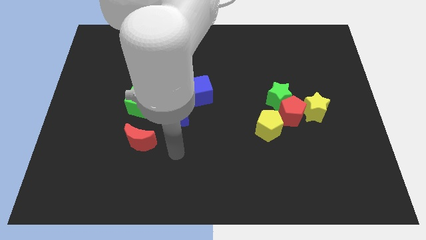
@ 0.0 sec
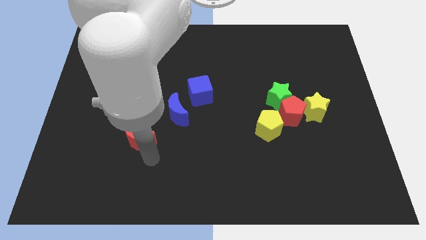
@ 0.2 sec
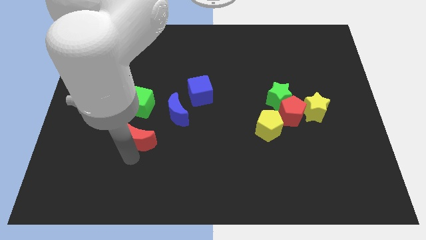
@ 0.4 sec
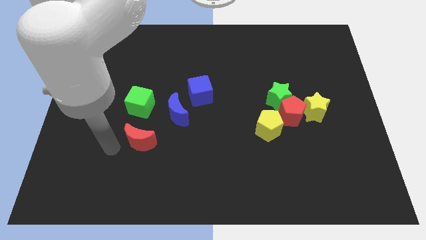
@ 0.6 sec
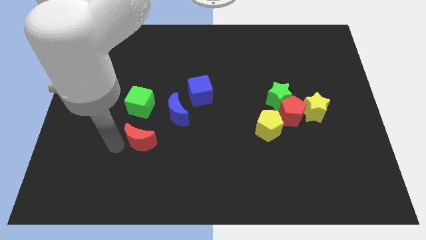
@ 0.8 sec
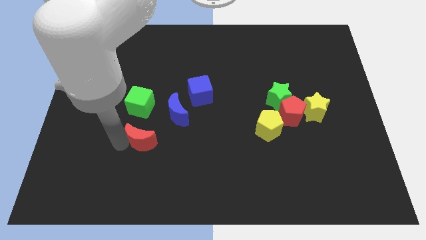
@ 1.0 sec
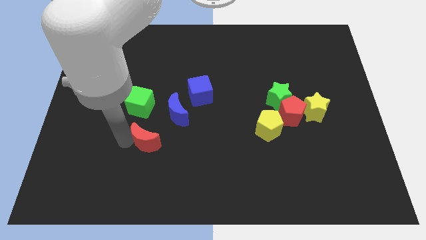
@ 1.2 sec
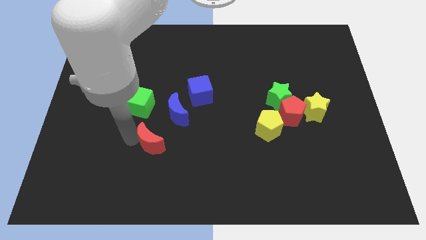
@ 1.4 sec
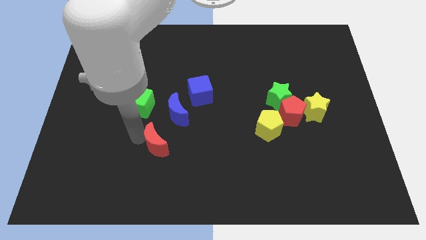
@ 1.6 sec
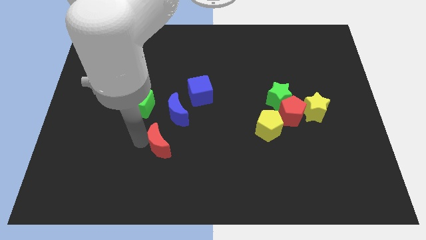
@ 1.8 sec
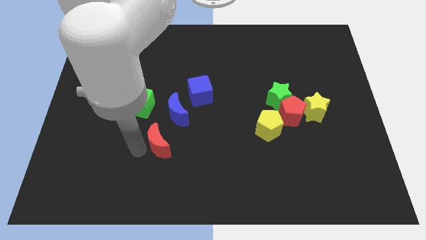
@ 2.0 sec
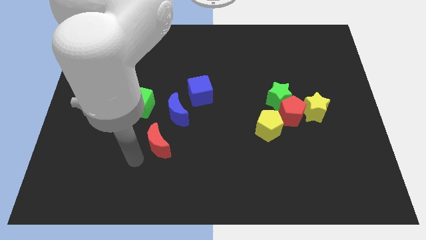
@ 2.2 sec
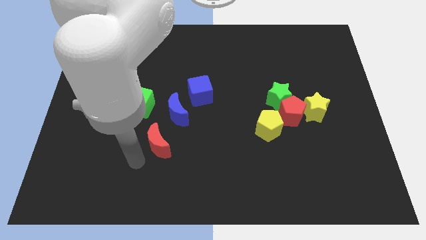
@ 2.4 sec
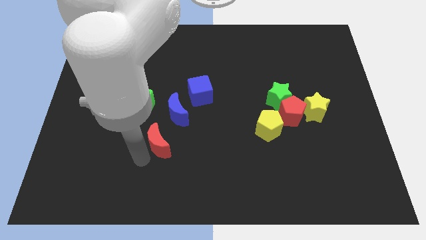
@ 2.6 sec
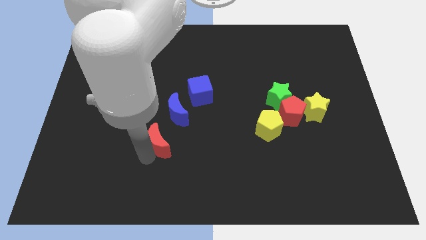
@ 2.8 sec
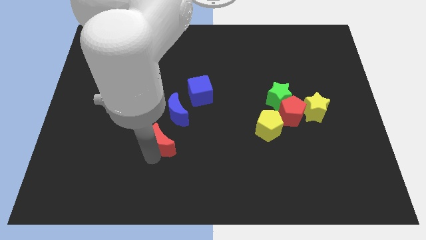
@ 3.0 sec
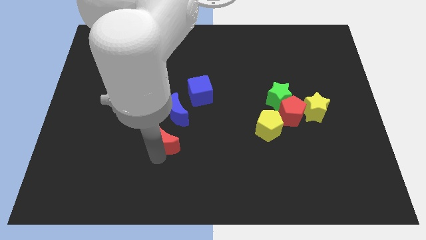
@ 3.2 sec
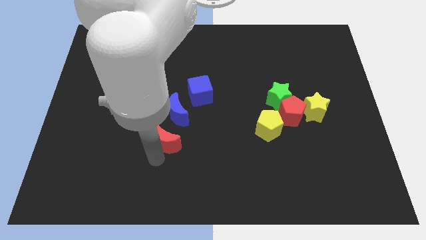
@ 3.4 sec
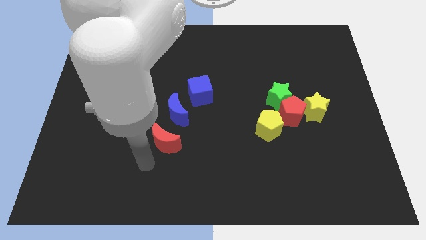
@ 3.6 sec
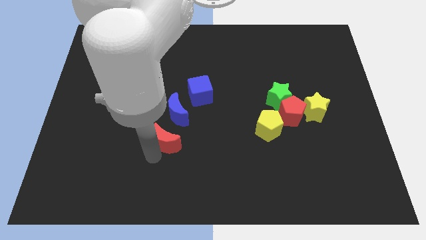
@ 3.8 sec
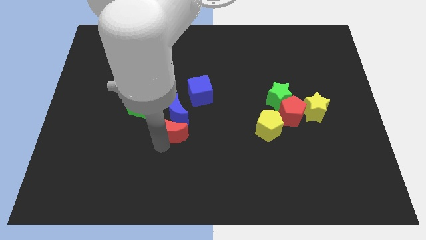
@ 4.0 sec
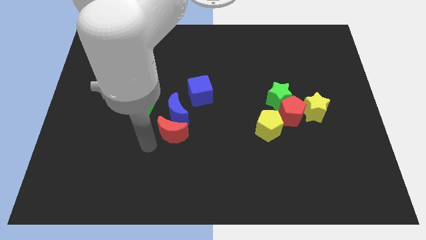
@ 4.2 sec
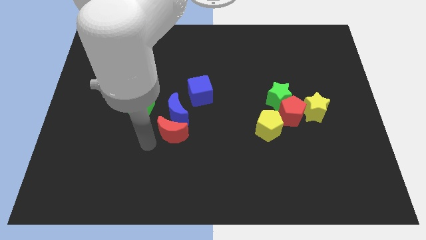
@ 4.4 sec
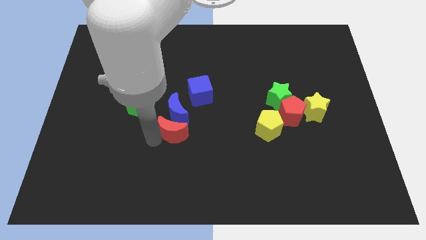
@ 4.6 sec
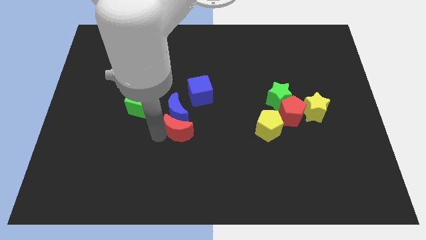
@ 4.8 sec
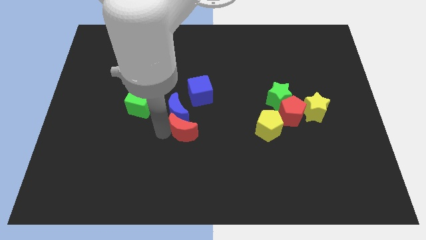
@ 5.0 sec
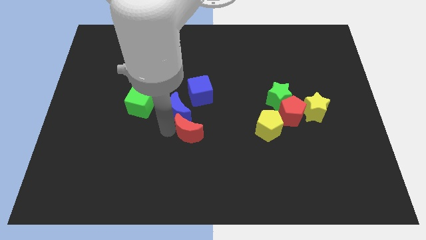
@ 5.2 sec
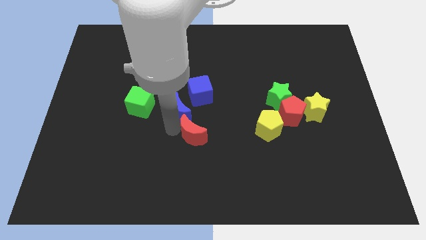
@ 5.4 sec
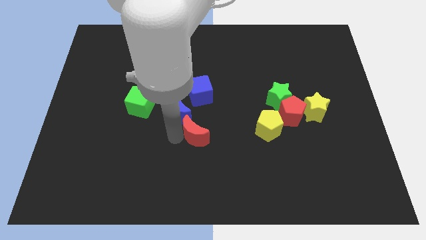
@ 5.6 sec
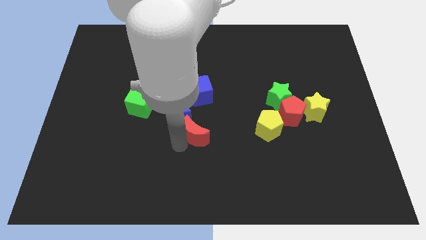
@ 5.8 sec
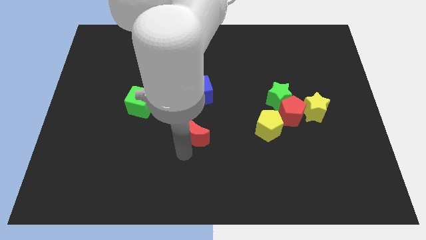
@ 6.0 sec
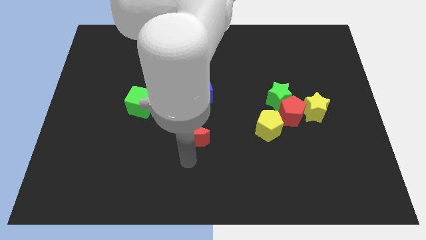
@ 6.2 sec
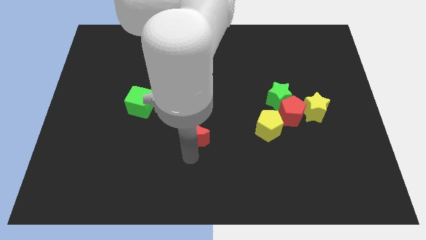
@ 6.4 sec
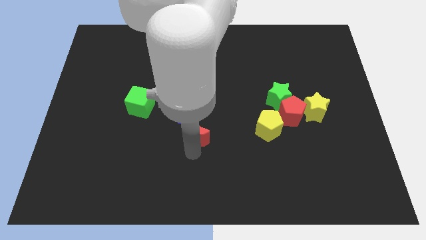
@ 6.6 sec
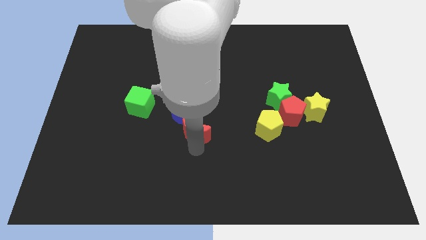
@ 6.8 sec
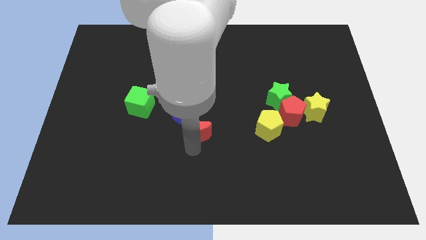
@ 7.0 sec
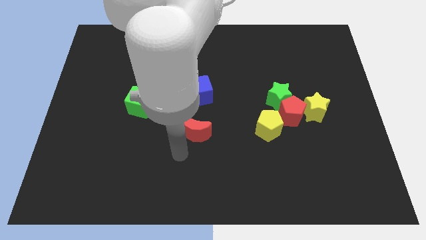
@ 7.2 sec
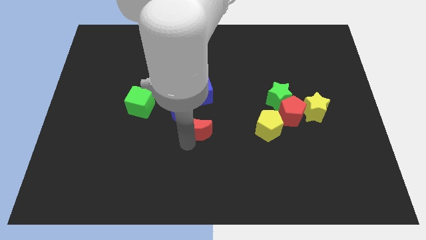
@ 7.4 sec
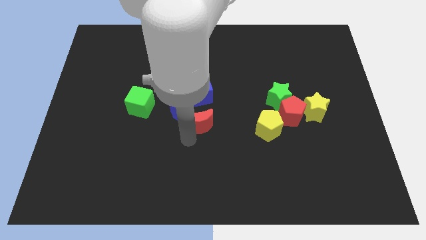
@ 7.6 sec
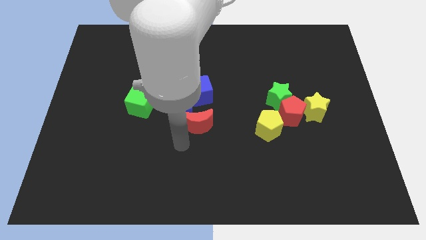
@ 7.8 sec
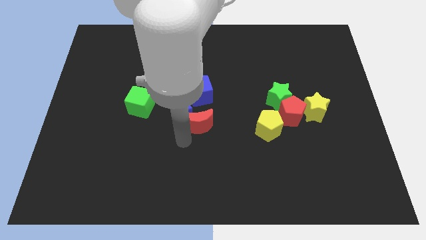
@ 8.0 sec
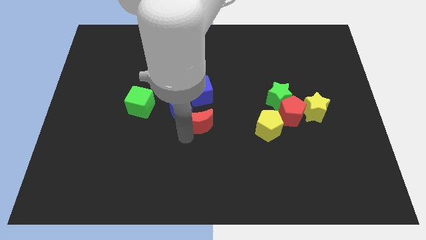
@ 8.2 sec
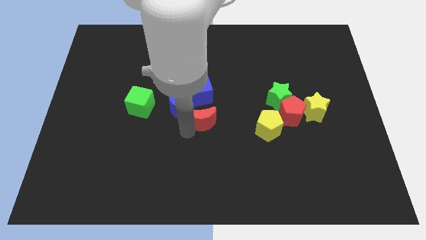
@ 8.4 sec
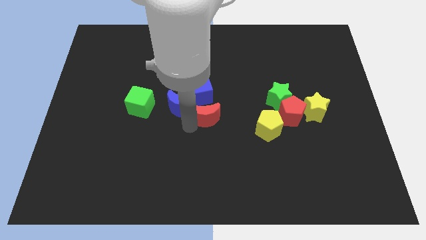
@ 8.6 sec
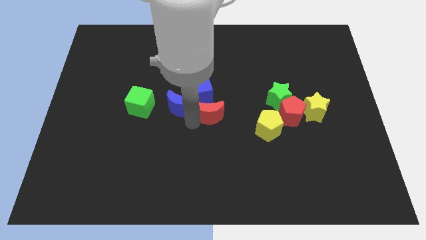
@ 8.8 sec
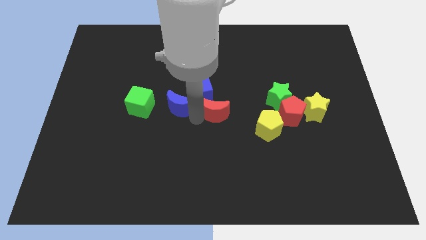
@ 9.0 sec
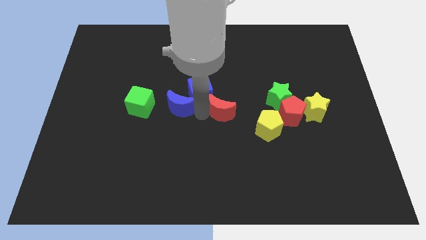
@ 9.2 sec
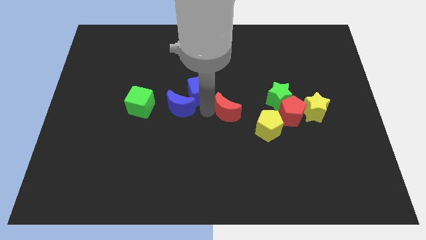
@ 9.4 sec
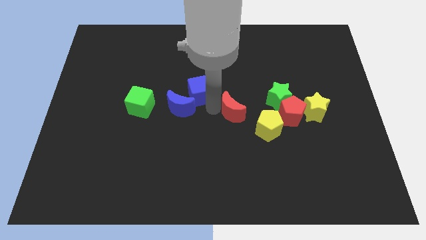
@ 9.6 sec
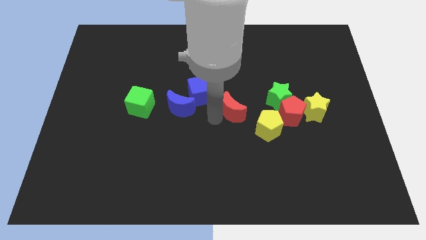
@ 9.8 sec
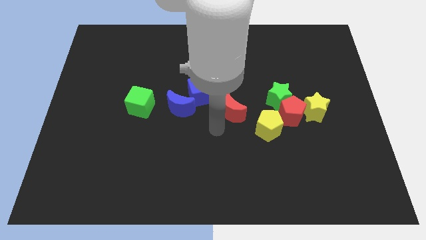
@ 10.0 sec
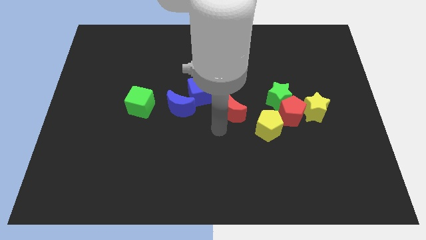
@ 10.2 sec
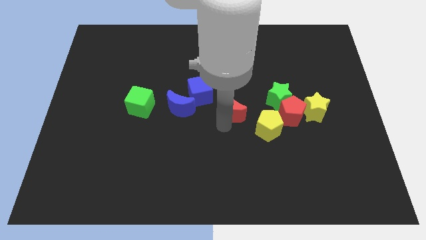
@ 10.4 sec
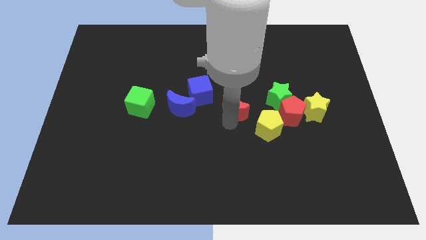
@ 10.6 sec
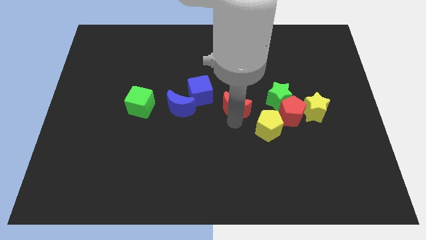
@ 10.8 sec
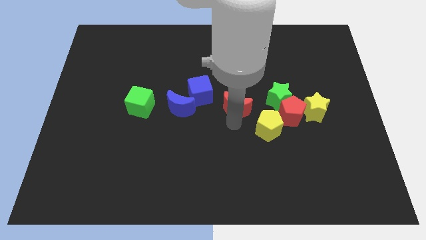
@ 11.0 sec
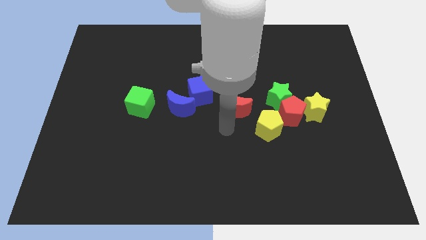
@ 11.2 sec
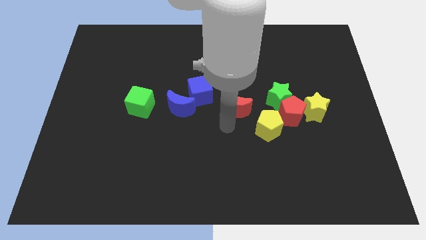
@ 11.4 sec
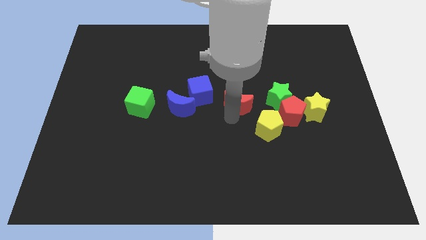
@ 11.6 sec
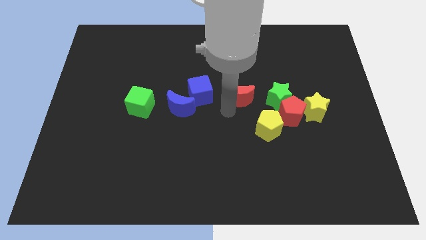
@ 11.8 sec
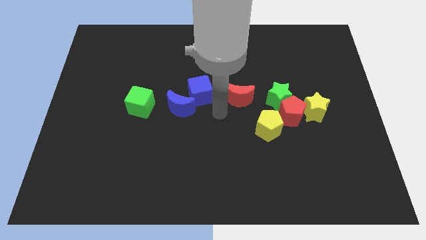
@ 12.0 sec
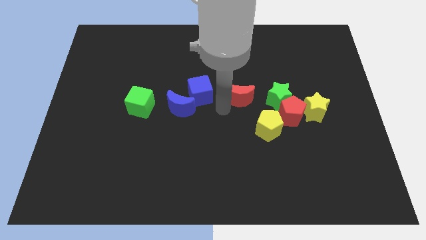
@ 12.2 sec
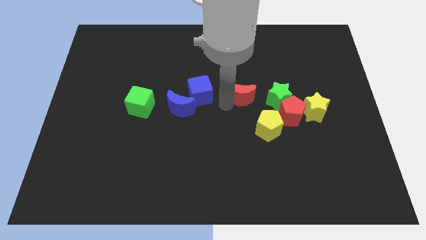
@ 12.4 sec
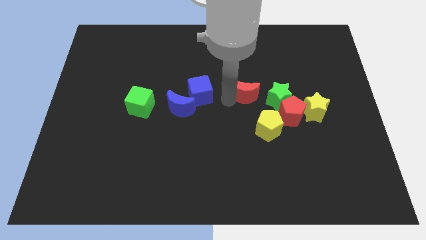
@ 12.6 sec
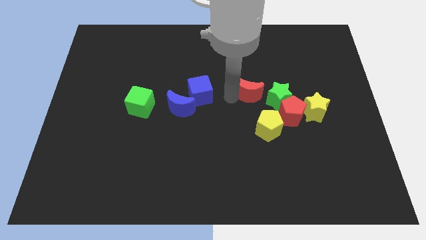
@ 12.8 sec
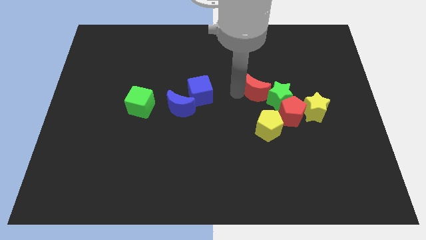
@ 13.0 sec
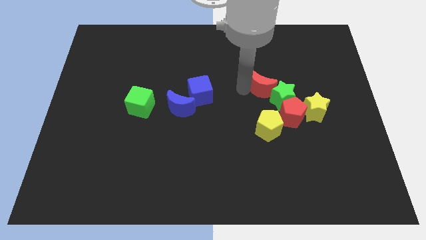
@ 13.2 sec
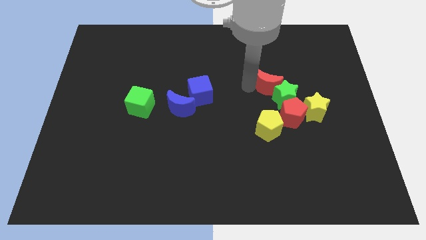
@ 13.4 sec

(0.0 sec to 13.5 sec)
push the red moon to the top of the red pentagon
